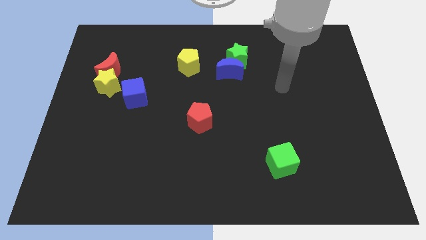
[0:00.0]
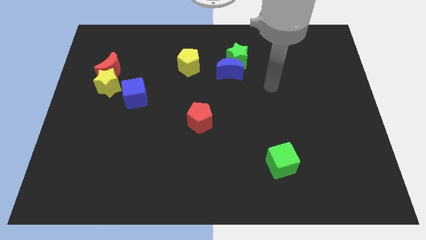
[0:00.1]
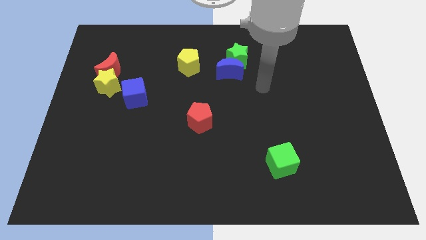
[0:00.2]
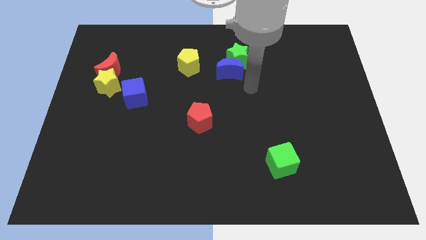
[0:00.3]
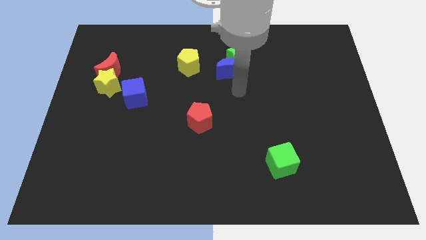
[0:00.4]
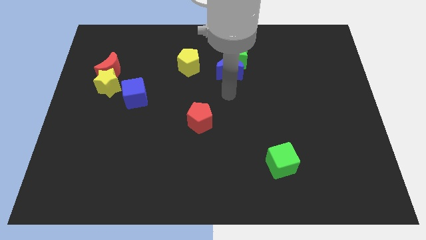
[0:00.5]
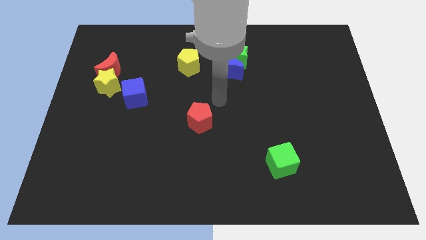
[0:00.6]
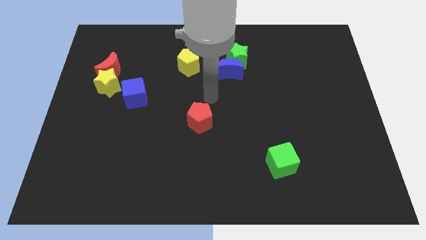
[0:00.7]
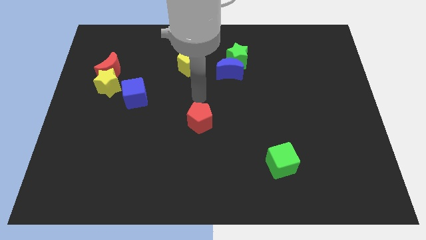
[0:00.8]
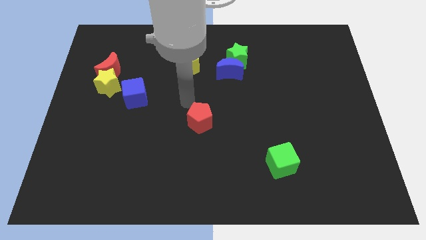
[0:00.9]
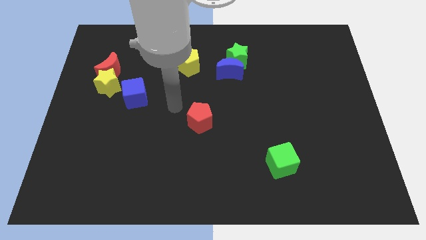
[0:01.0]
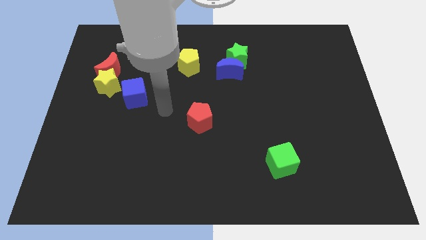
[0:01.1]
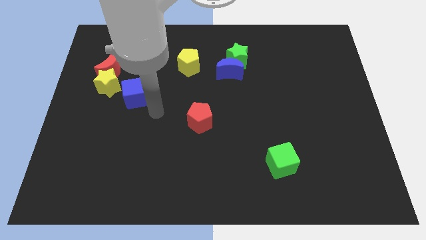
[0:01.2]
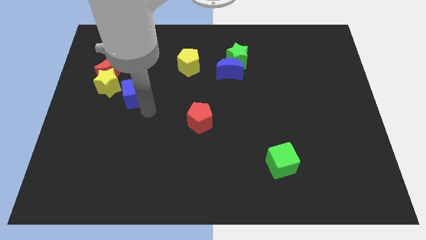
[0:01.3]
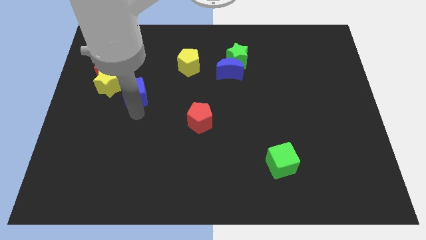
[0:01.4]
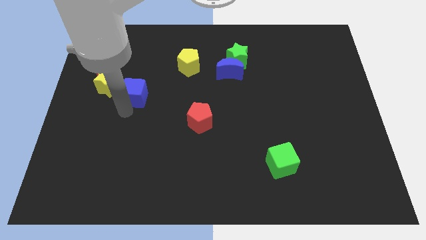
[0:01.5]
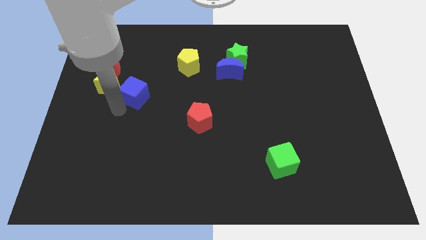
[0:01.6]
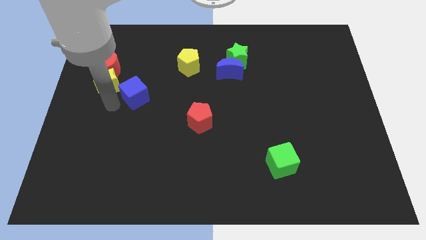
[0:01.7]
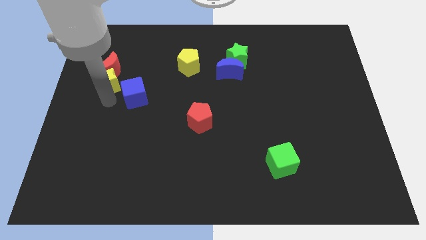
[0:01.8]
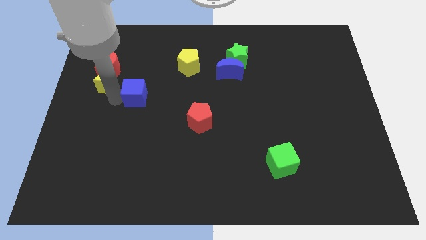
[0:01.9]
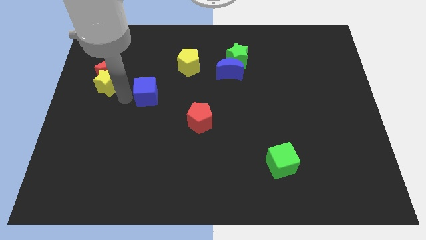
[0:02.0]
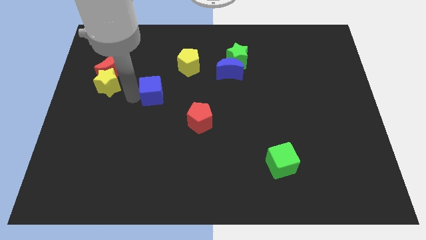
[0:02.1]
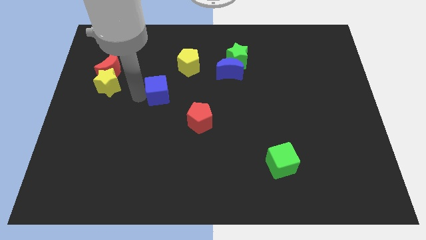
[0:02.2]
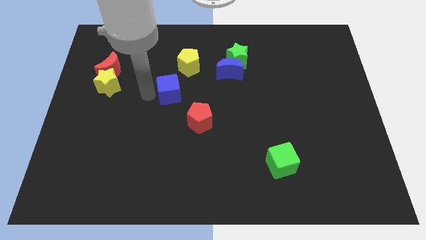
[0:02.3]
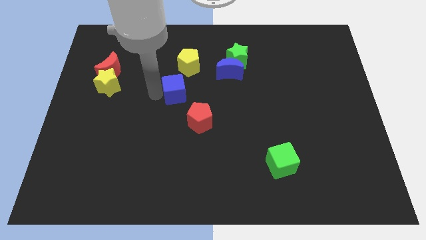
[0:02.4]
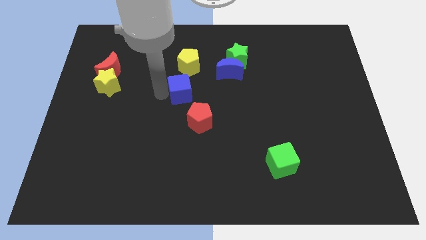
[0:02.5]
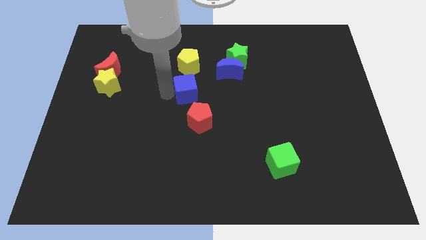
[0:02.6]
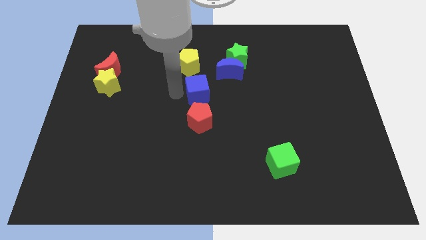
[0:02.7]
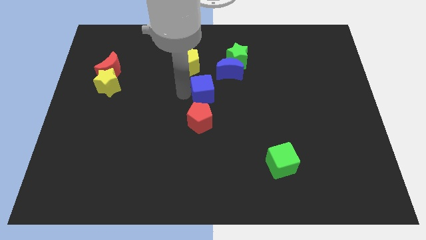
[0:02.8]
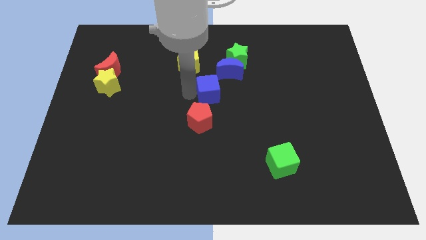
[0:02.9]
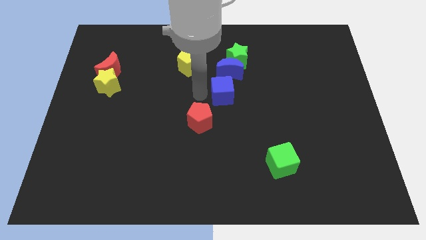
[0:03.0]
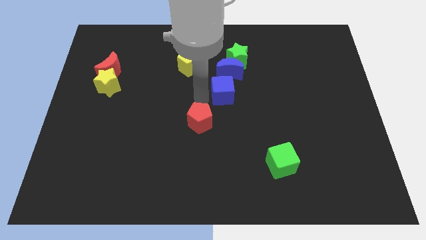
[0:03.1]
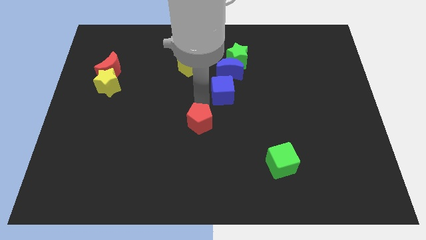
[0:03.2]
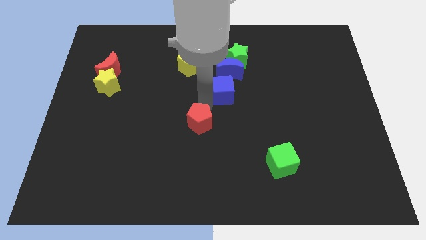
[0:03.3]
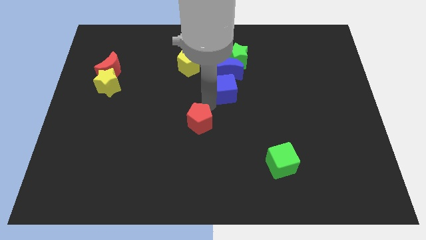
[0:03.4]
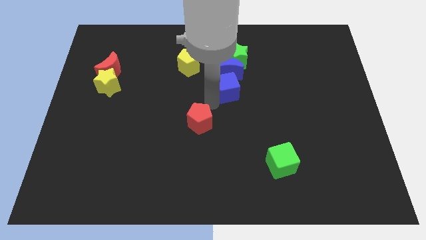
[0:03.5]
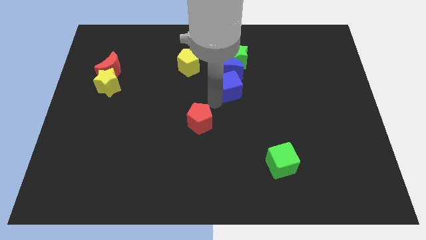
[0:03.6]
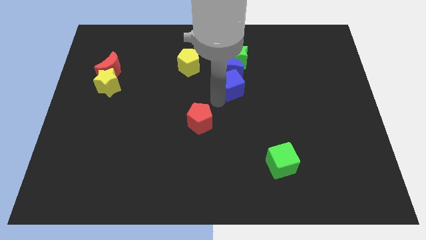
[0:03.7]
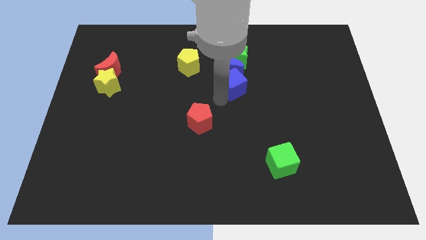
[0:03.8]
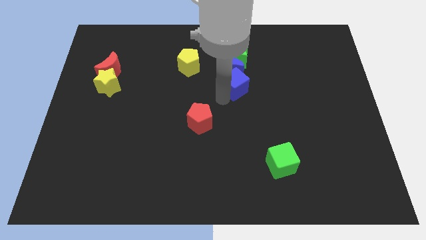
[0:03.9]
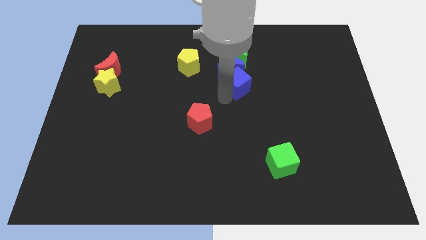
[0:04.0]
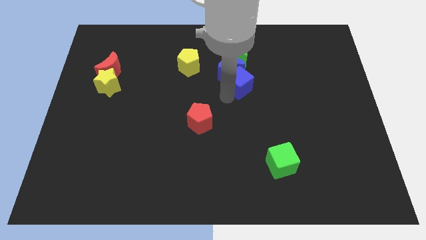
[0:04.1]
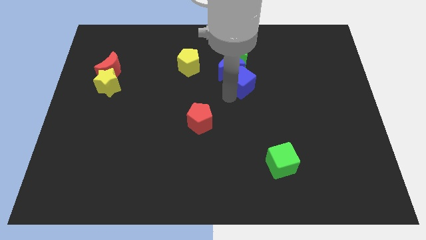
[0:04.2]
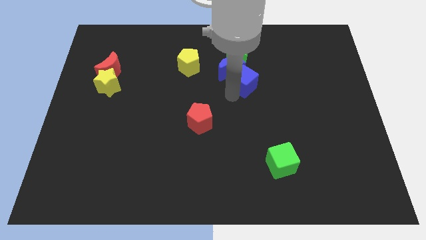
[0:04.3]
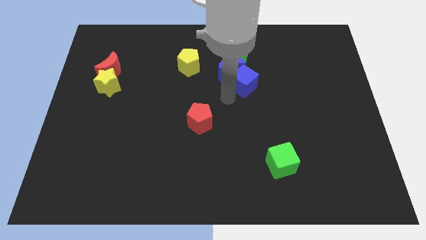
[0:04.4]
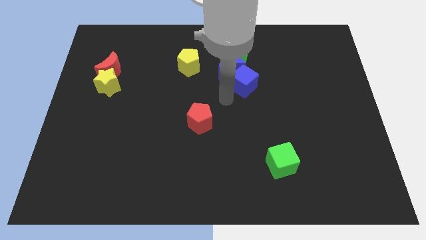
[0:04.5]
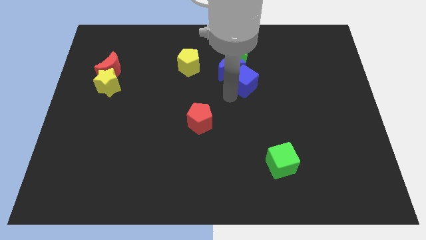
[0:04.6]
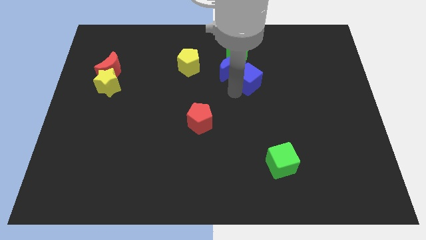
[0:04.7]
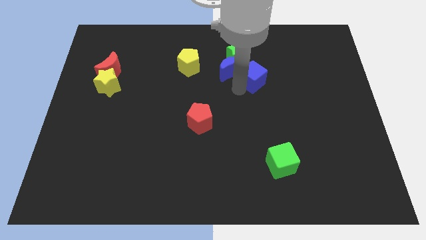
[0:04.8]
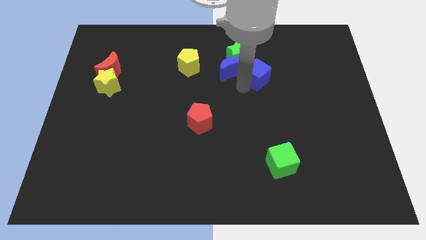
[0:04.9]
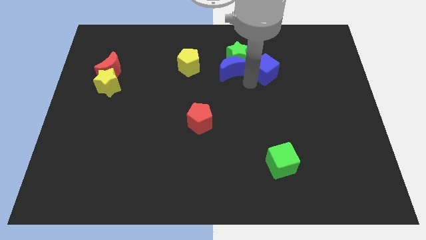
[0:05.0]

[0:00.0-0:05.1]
slide the blue cube just right of the green star
